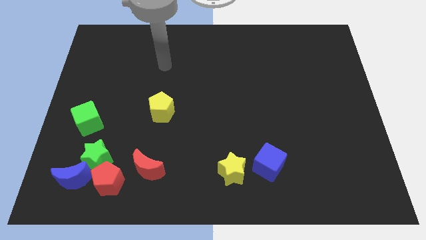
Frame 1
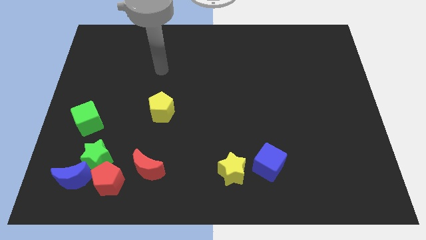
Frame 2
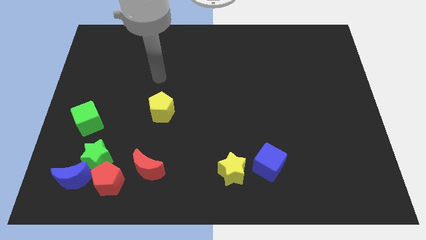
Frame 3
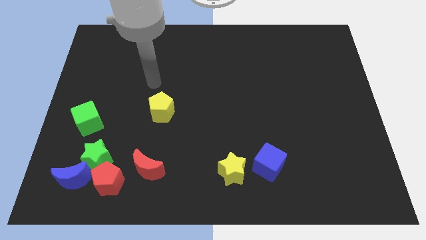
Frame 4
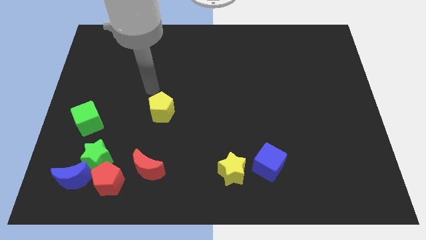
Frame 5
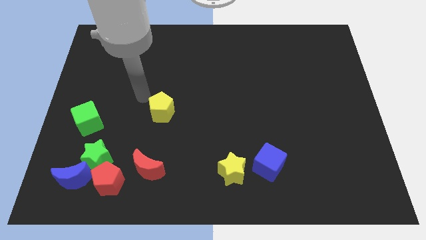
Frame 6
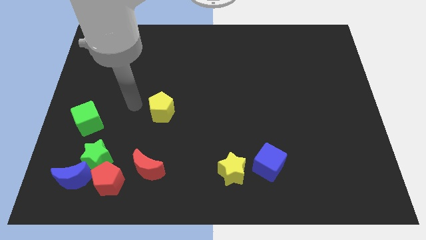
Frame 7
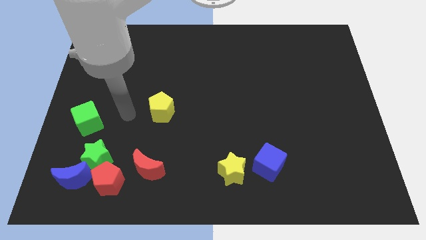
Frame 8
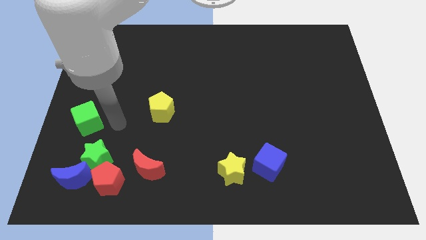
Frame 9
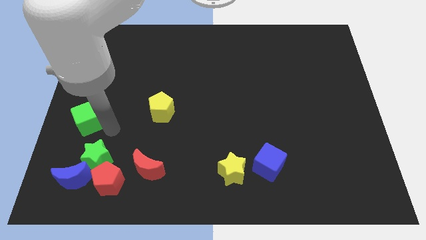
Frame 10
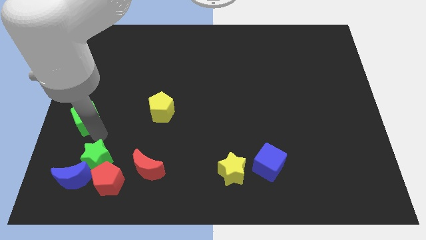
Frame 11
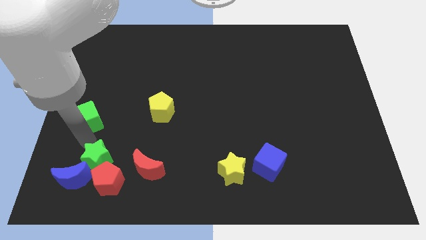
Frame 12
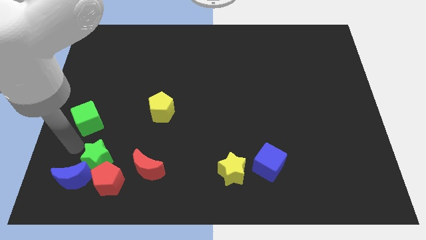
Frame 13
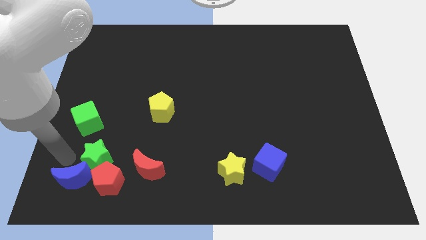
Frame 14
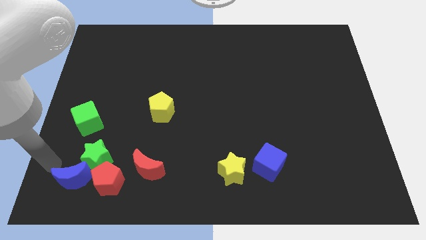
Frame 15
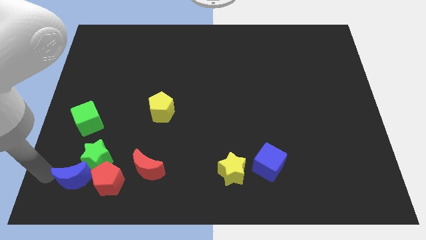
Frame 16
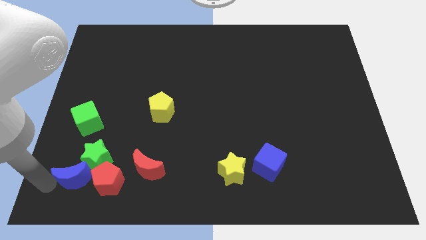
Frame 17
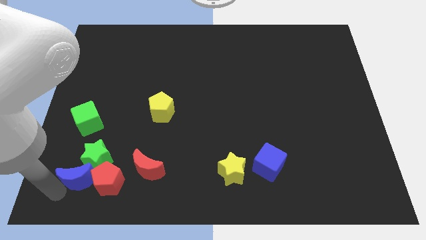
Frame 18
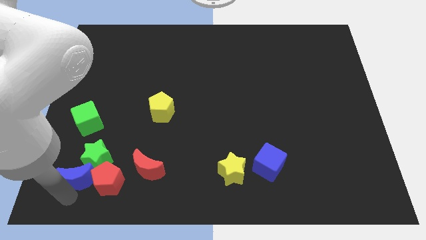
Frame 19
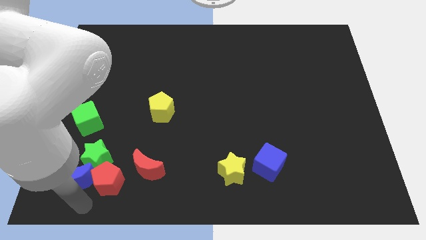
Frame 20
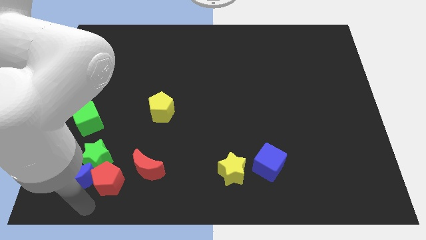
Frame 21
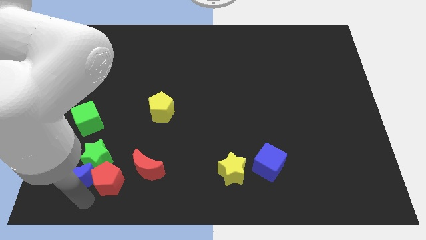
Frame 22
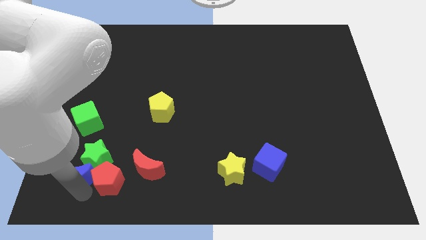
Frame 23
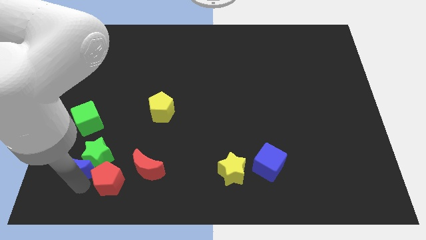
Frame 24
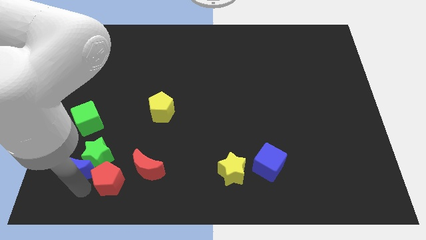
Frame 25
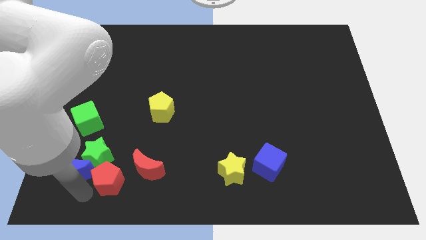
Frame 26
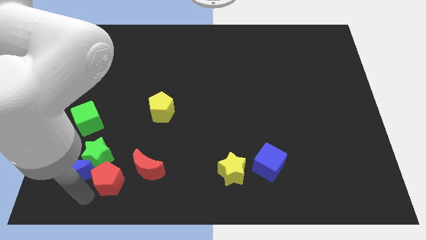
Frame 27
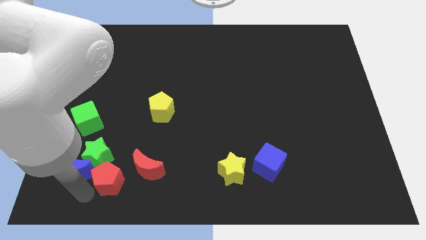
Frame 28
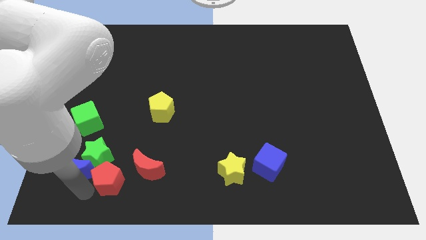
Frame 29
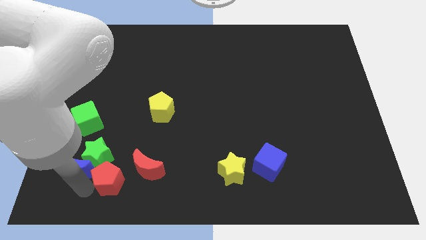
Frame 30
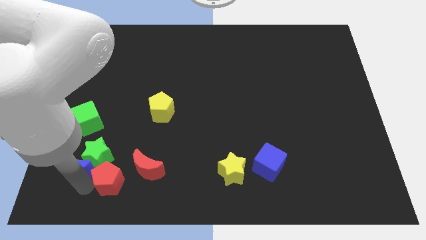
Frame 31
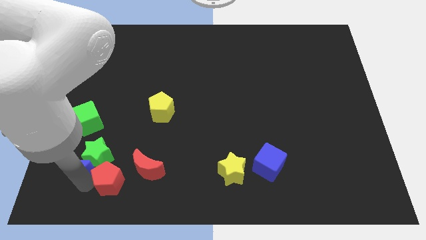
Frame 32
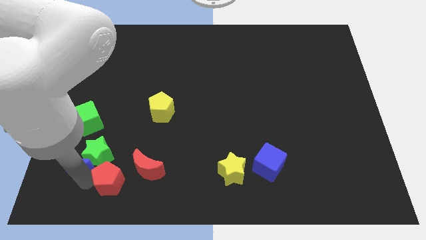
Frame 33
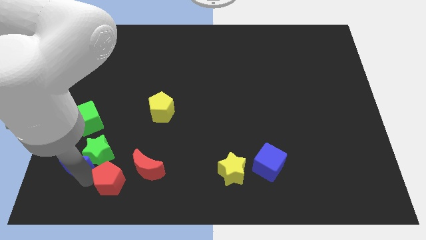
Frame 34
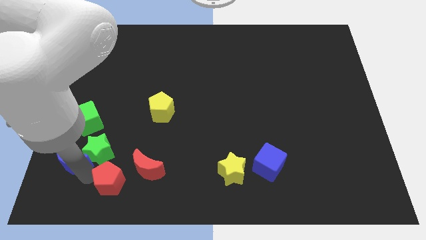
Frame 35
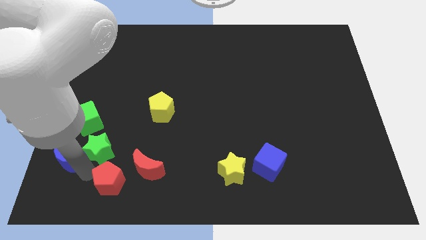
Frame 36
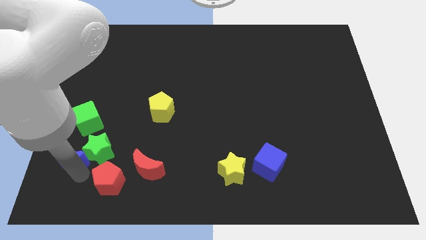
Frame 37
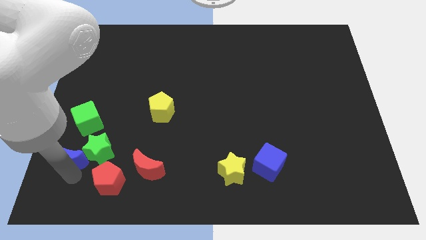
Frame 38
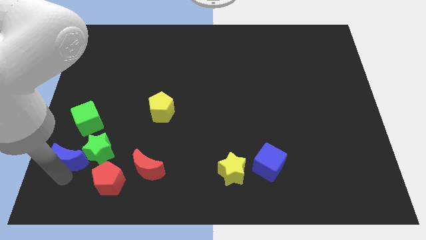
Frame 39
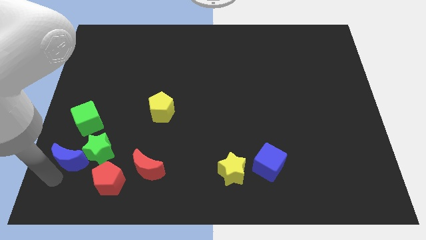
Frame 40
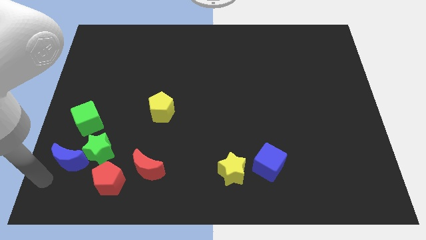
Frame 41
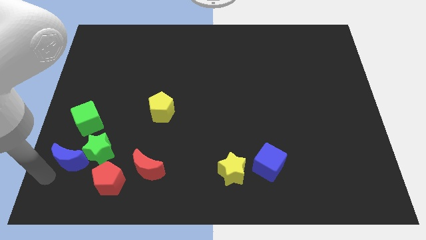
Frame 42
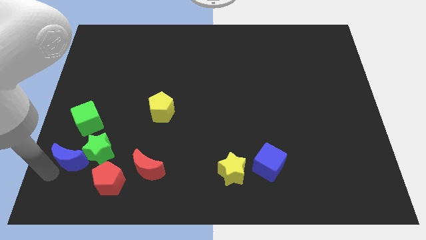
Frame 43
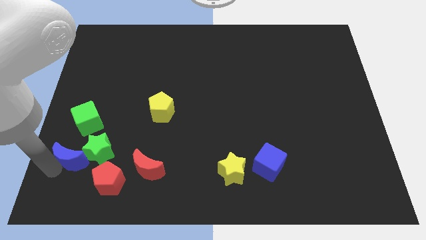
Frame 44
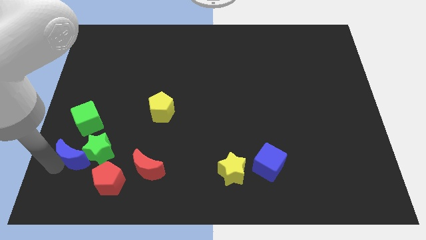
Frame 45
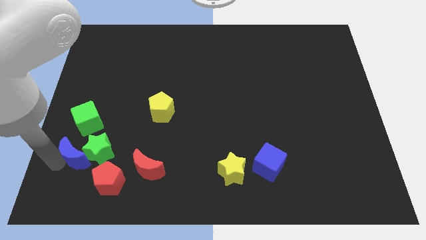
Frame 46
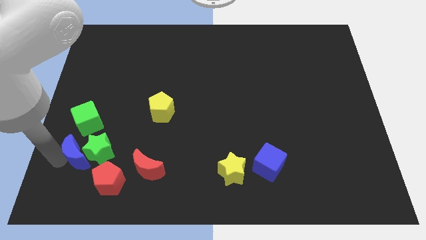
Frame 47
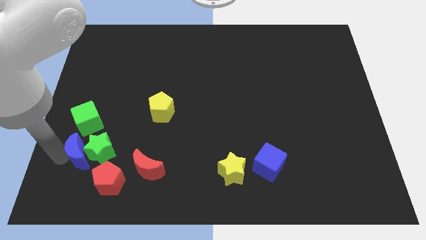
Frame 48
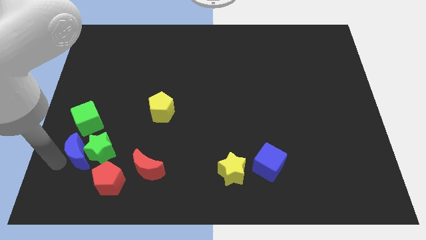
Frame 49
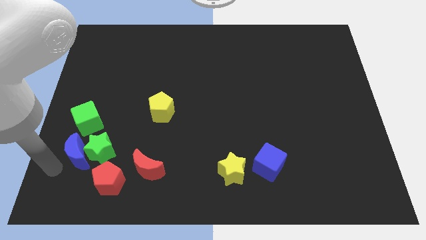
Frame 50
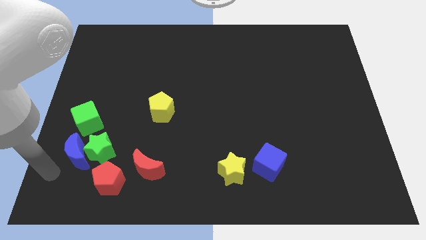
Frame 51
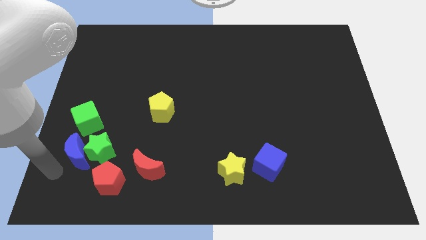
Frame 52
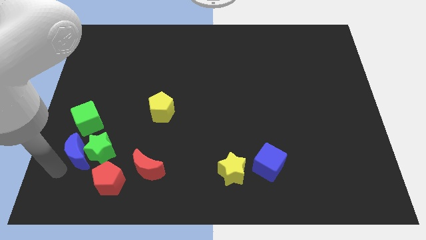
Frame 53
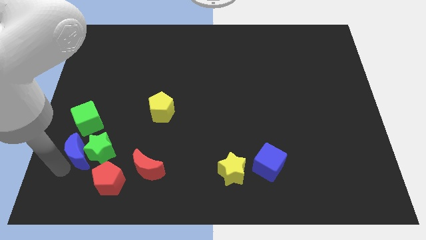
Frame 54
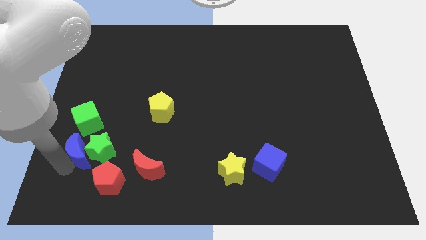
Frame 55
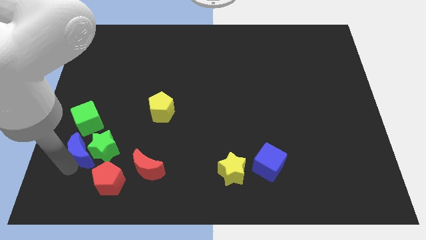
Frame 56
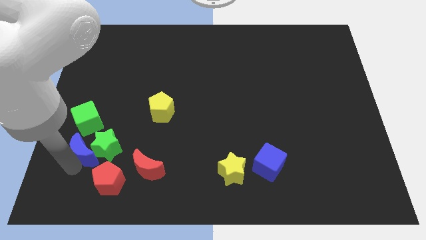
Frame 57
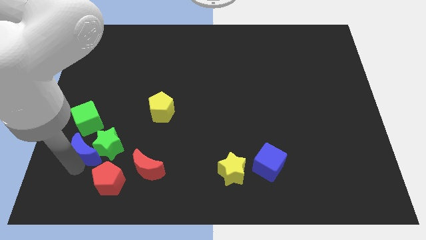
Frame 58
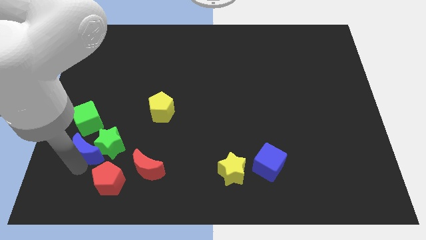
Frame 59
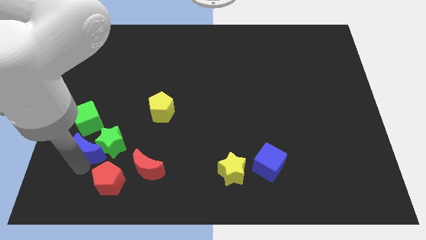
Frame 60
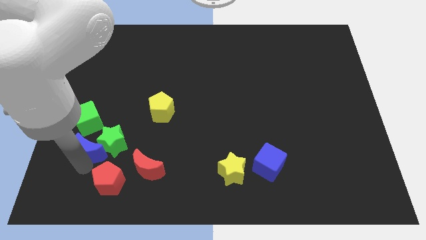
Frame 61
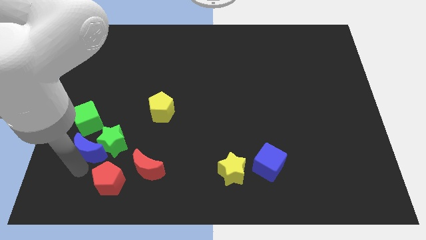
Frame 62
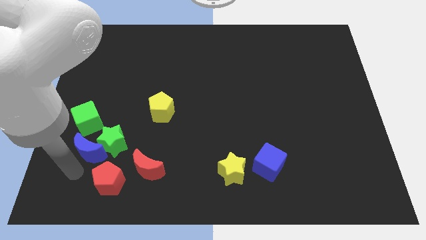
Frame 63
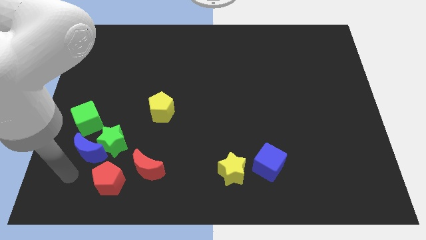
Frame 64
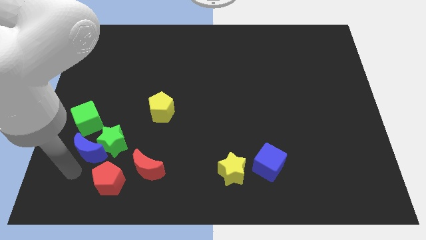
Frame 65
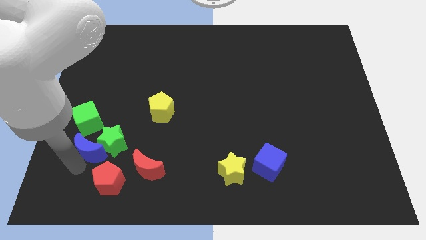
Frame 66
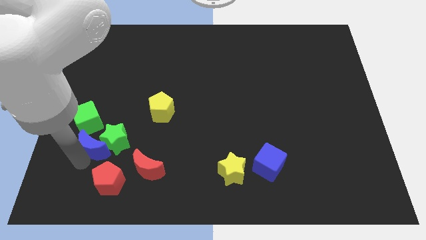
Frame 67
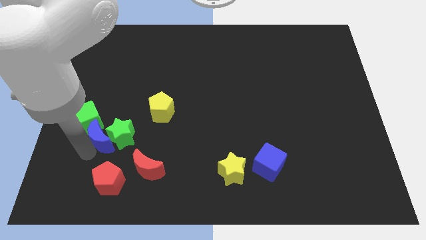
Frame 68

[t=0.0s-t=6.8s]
push the blue moon somewhat up and to the right diagonally

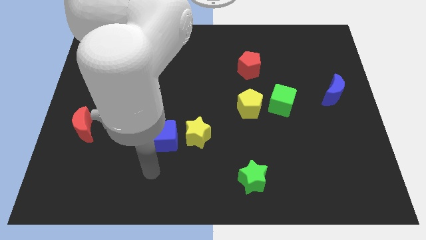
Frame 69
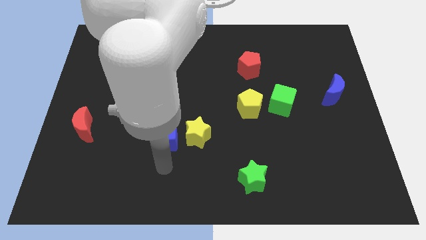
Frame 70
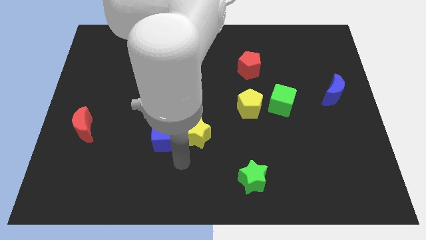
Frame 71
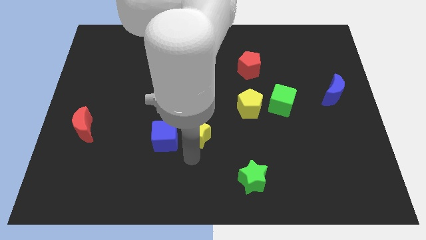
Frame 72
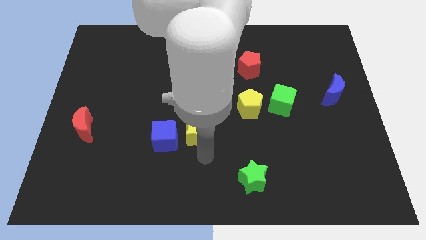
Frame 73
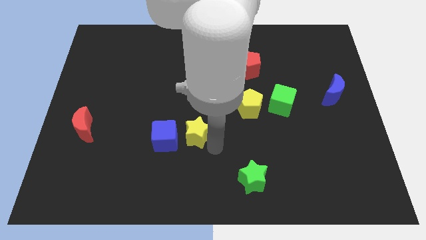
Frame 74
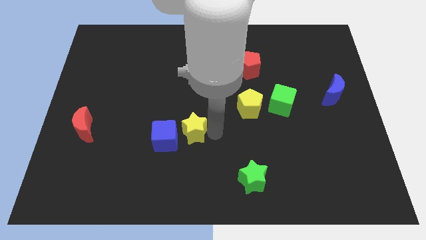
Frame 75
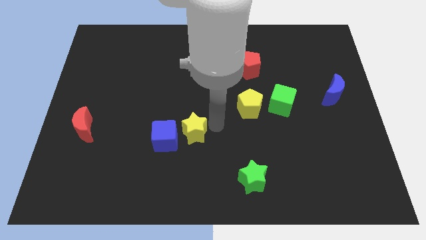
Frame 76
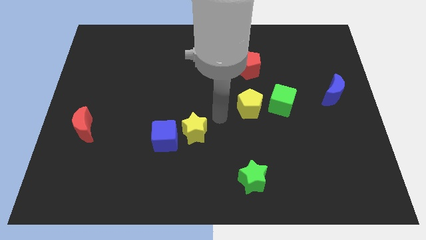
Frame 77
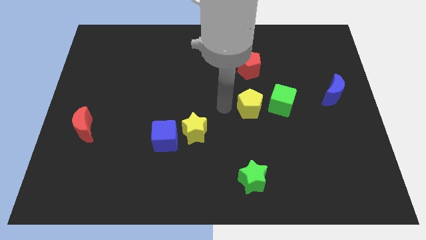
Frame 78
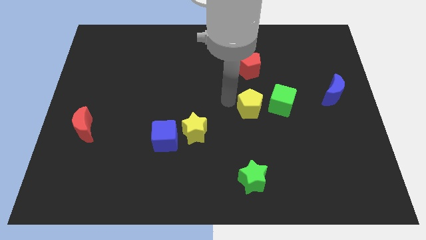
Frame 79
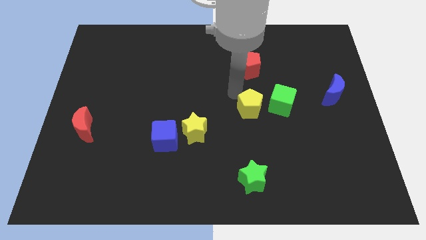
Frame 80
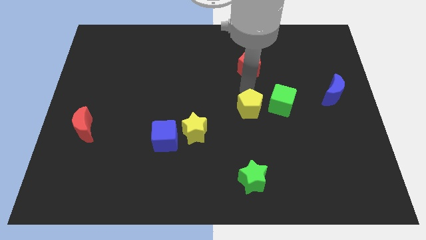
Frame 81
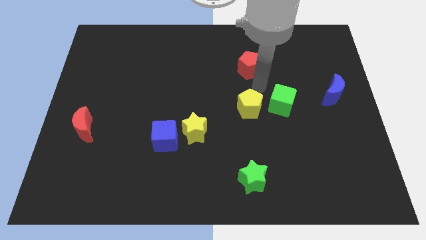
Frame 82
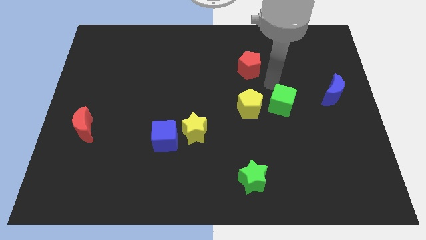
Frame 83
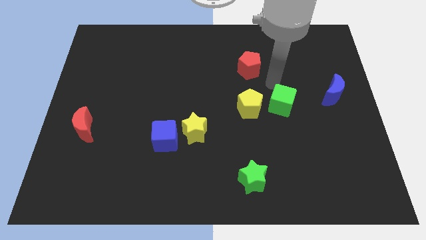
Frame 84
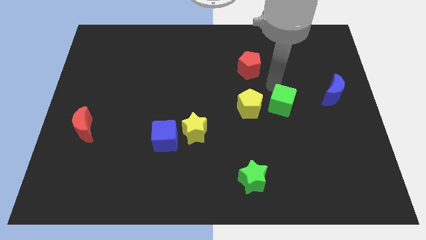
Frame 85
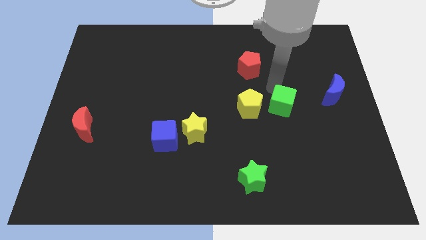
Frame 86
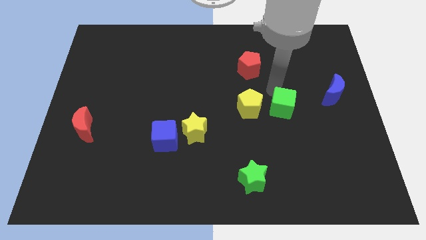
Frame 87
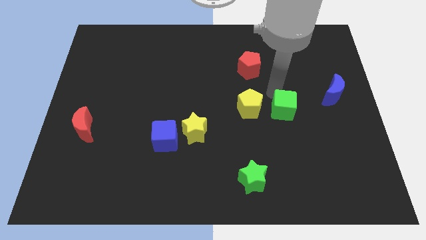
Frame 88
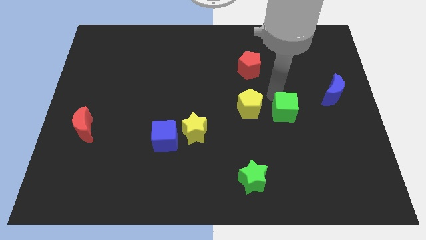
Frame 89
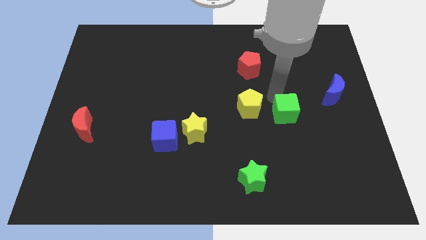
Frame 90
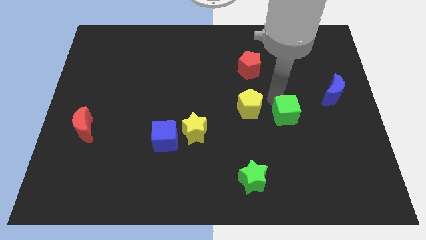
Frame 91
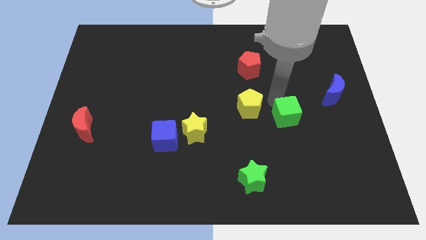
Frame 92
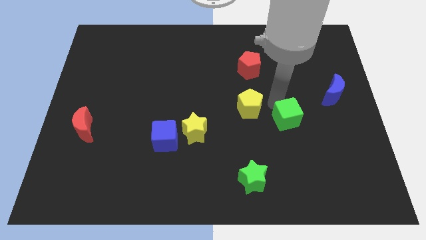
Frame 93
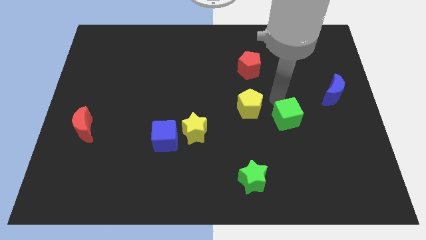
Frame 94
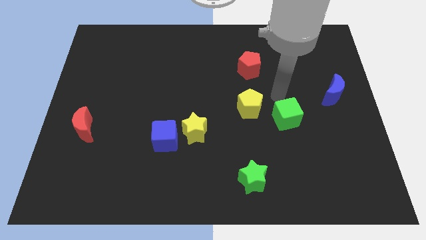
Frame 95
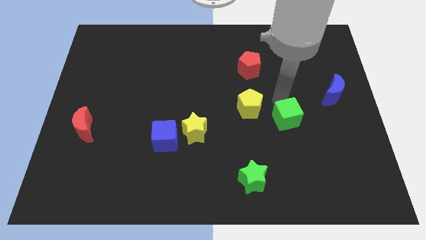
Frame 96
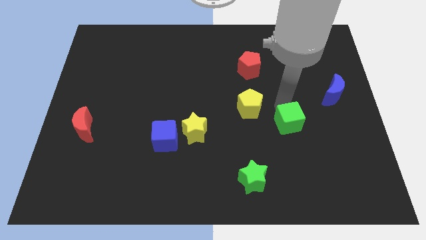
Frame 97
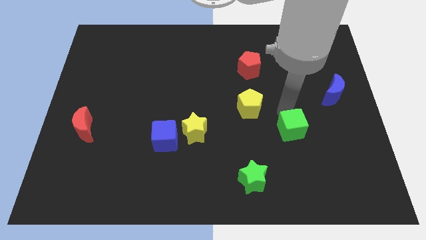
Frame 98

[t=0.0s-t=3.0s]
push the green cube downwards a little
